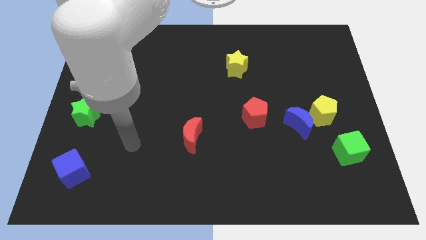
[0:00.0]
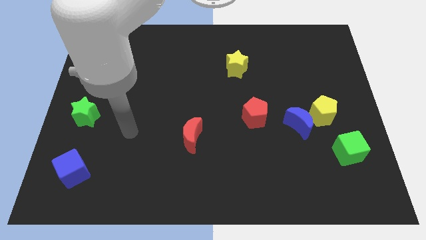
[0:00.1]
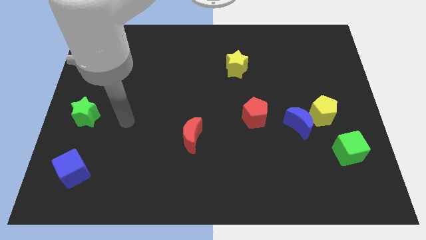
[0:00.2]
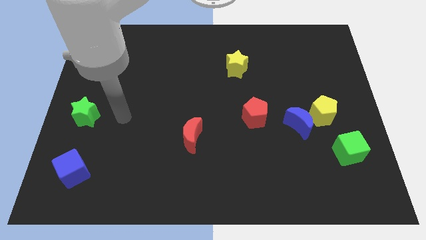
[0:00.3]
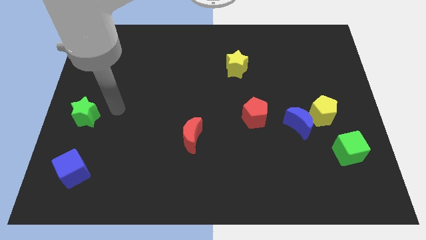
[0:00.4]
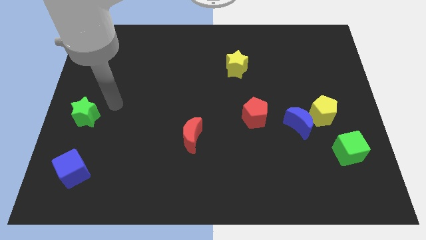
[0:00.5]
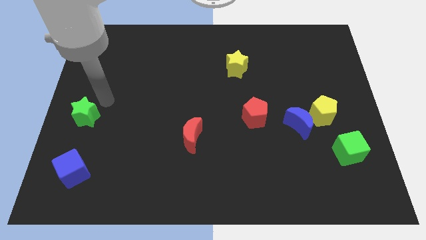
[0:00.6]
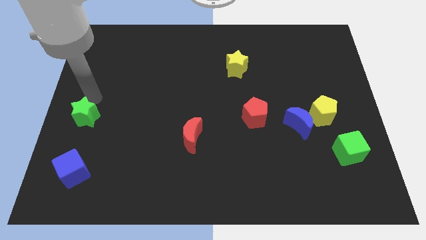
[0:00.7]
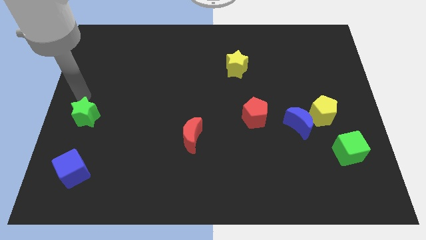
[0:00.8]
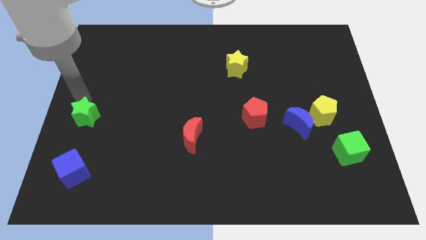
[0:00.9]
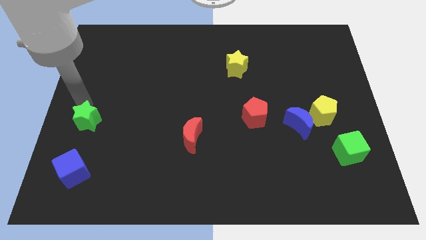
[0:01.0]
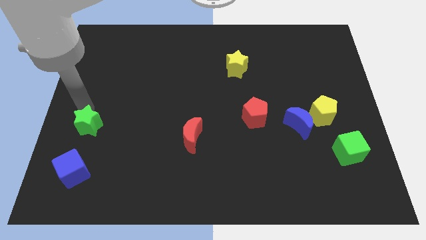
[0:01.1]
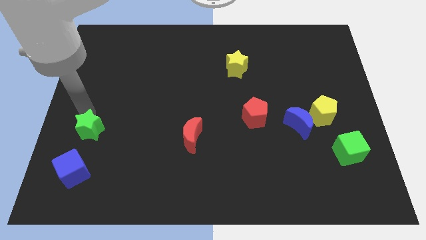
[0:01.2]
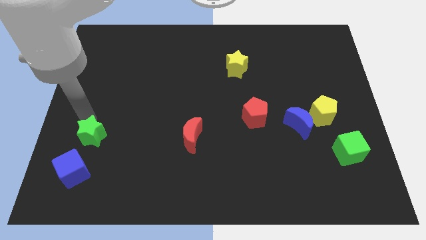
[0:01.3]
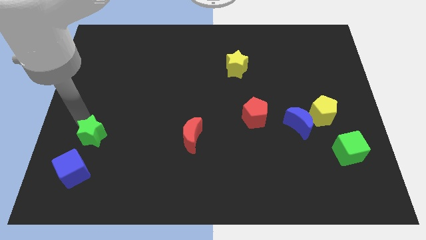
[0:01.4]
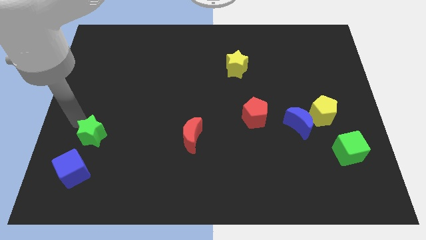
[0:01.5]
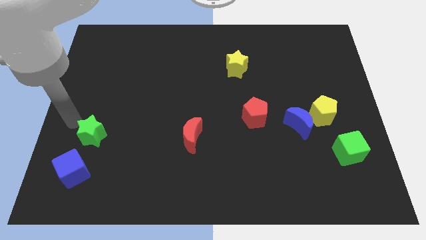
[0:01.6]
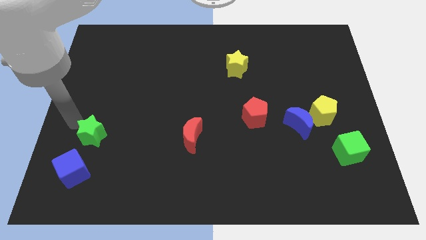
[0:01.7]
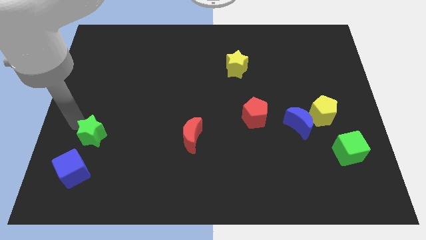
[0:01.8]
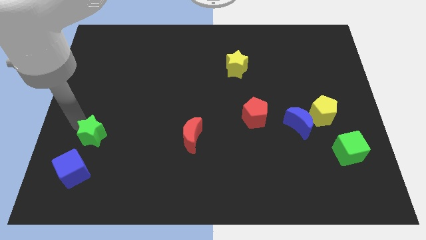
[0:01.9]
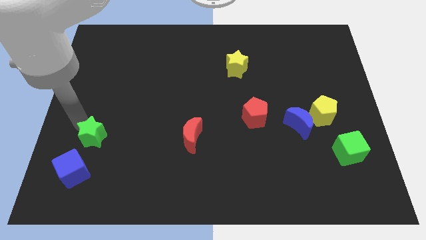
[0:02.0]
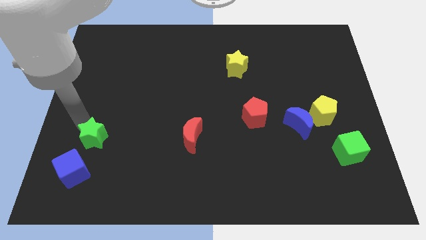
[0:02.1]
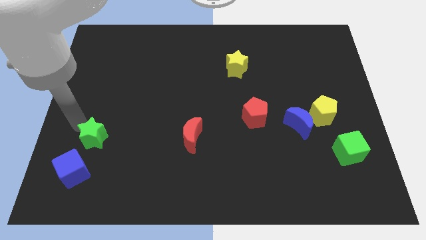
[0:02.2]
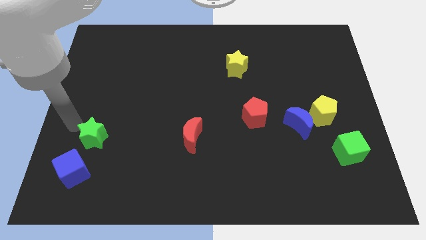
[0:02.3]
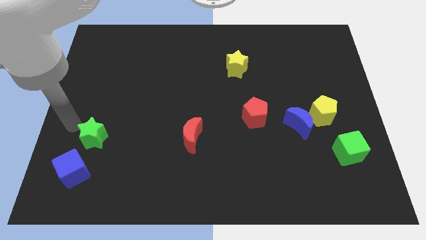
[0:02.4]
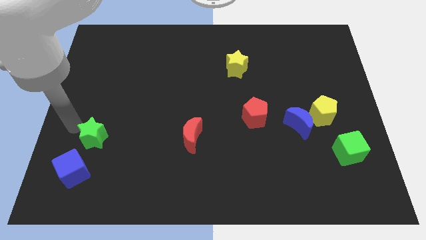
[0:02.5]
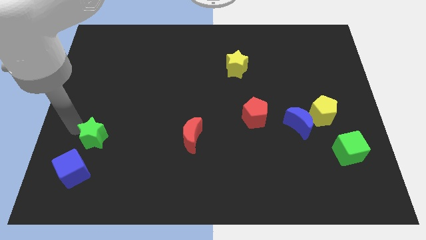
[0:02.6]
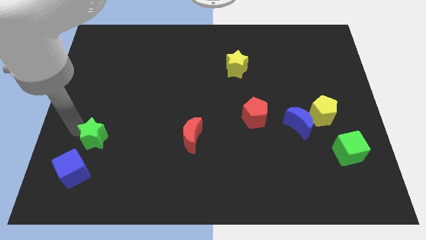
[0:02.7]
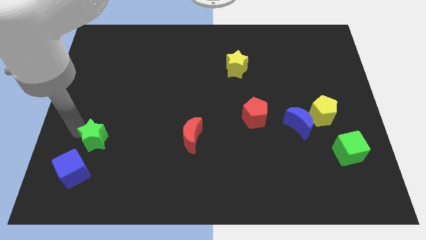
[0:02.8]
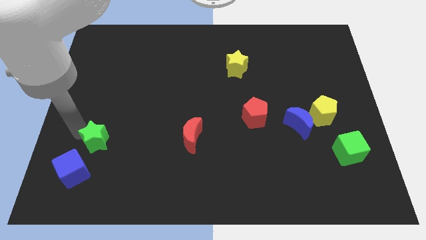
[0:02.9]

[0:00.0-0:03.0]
move the green star a little diagonally down and right

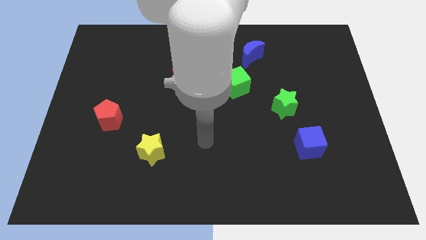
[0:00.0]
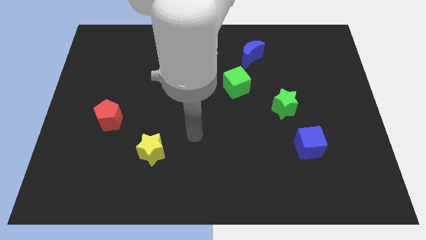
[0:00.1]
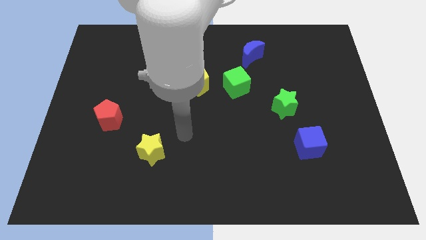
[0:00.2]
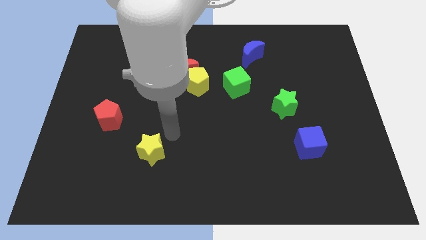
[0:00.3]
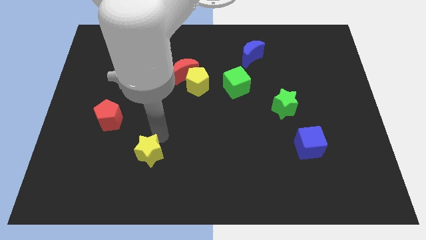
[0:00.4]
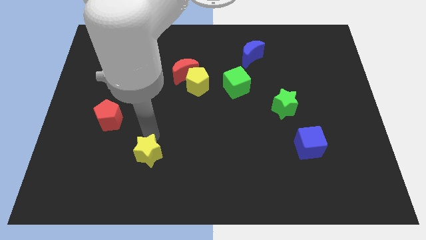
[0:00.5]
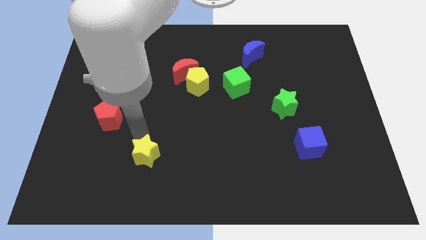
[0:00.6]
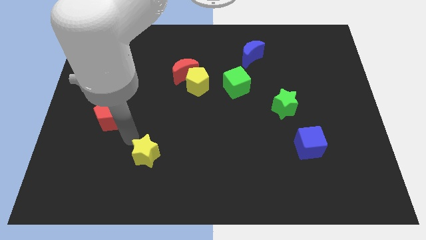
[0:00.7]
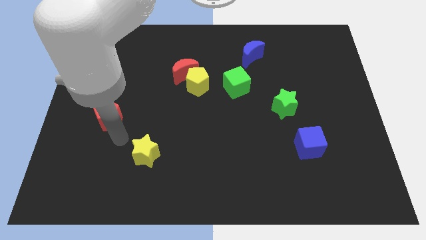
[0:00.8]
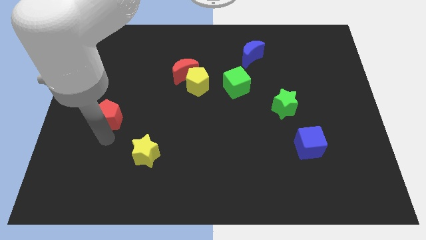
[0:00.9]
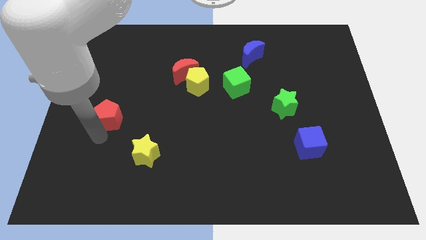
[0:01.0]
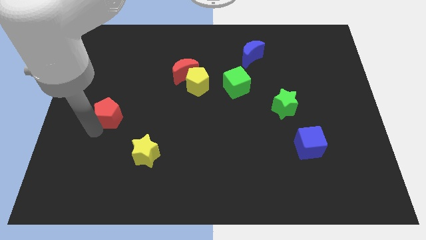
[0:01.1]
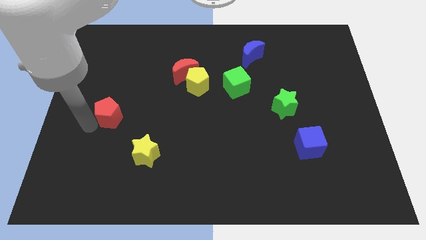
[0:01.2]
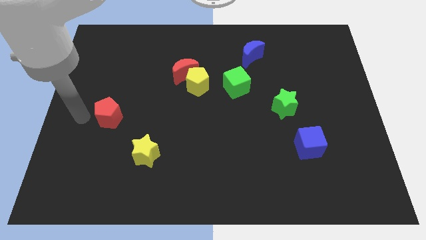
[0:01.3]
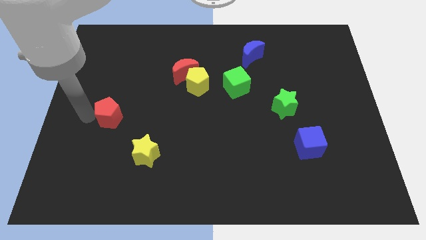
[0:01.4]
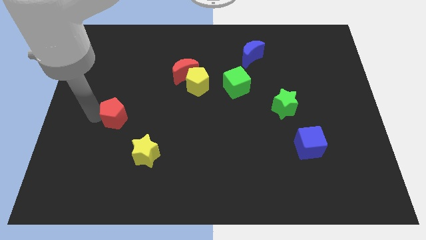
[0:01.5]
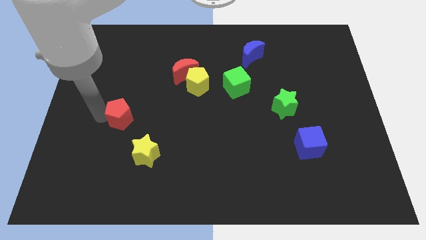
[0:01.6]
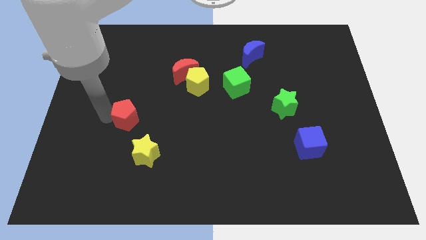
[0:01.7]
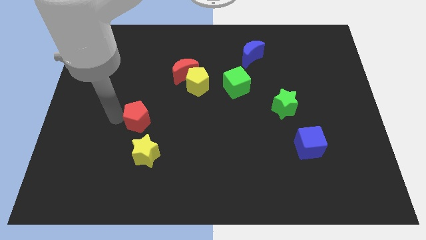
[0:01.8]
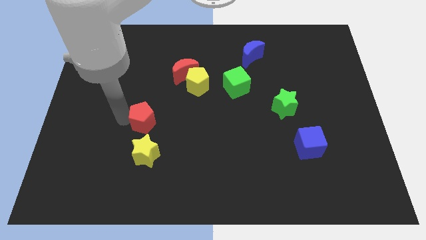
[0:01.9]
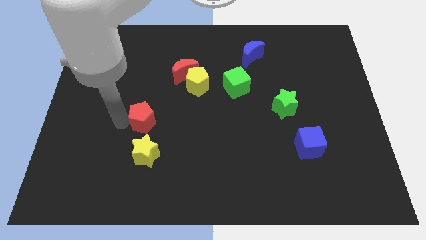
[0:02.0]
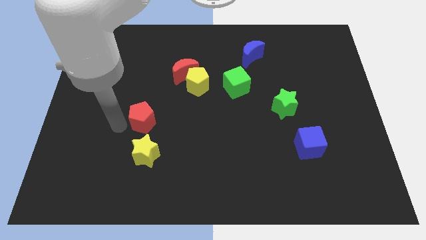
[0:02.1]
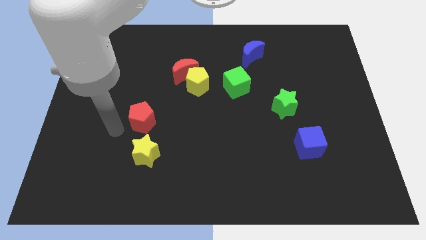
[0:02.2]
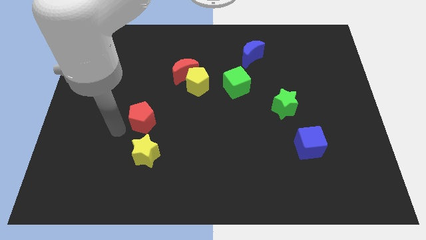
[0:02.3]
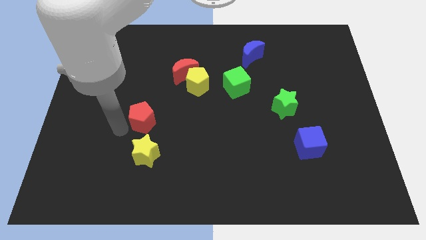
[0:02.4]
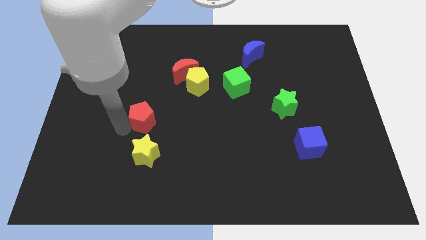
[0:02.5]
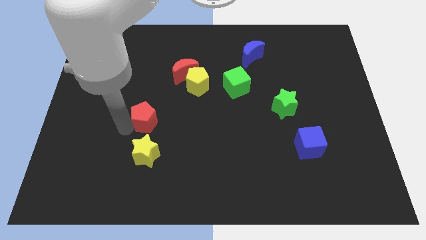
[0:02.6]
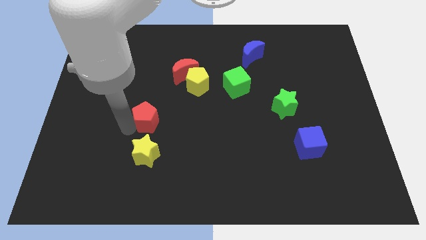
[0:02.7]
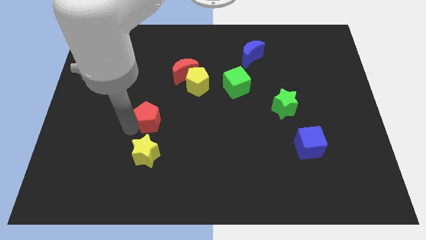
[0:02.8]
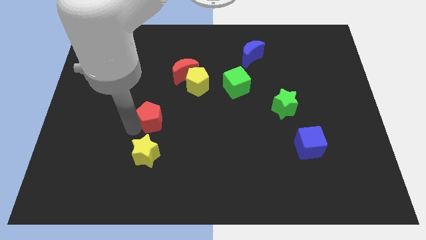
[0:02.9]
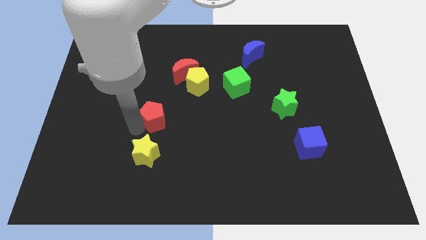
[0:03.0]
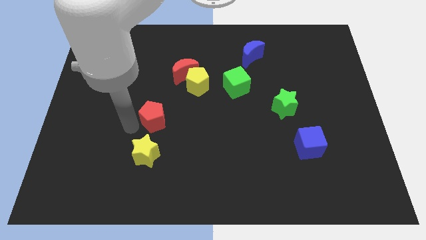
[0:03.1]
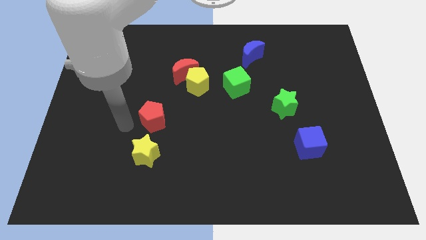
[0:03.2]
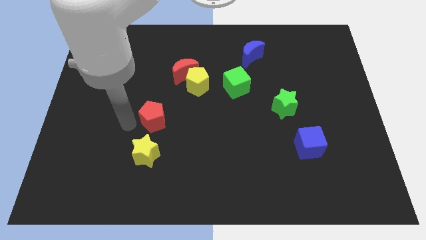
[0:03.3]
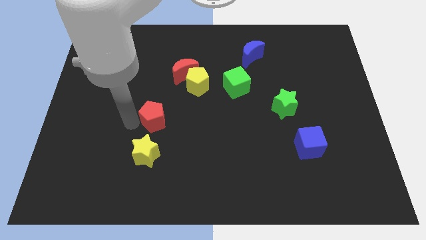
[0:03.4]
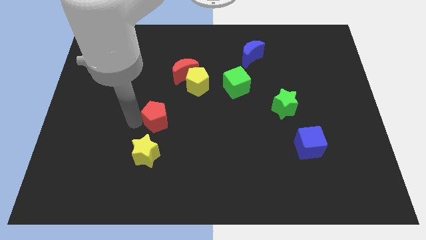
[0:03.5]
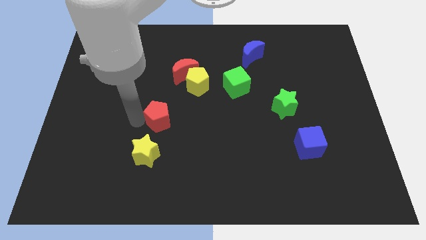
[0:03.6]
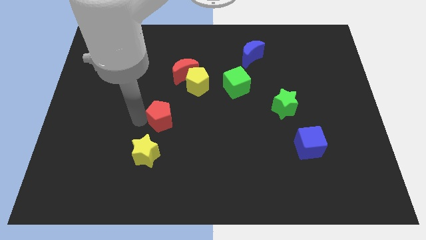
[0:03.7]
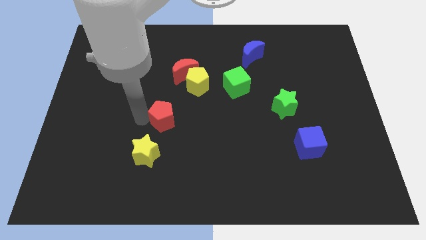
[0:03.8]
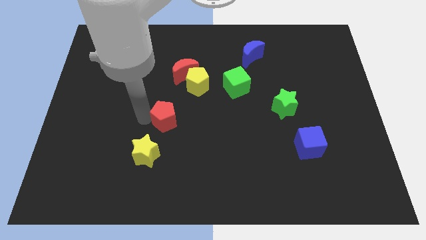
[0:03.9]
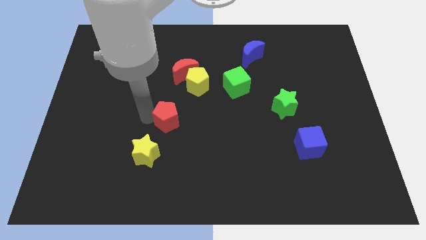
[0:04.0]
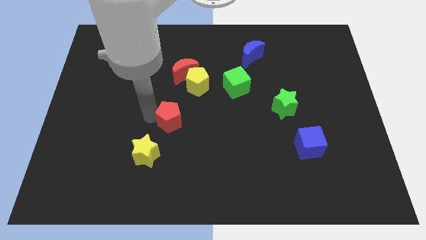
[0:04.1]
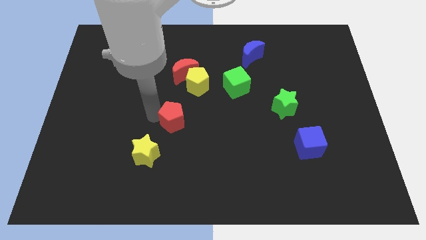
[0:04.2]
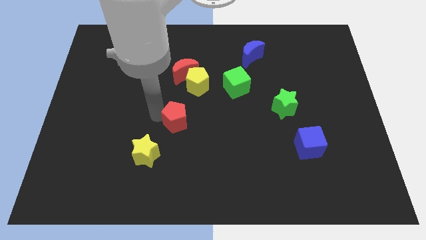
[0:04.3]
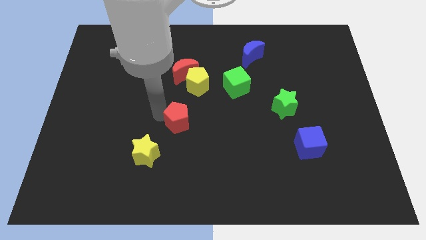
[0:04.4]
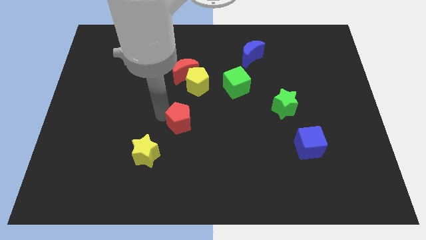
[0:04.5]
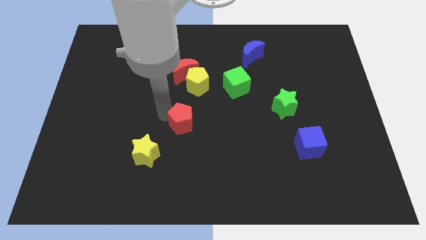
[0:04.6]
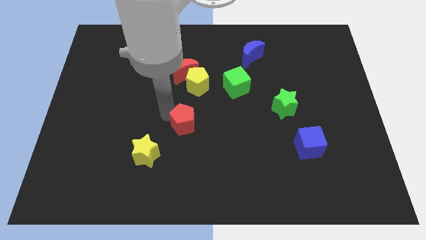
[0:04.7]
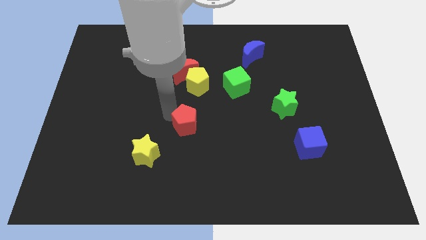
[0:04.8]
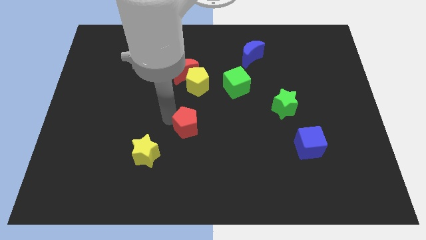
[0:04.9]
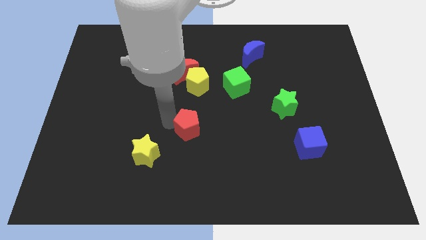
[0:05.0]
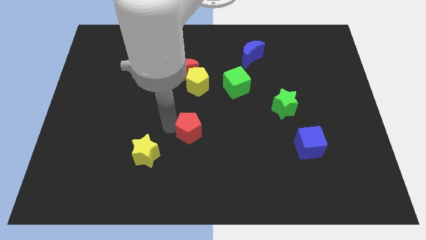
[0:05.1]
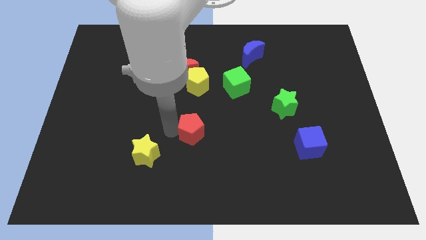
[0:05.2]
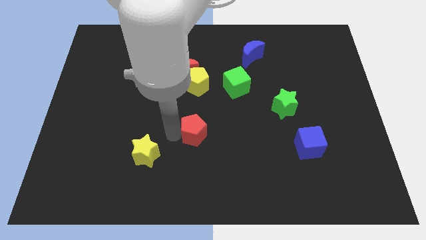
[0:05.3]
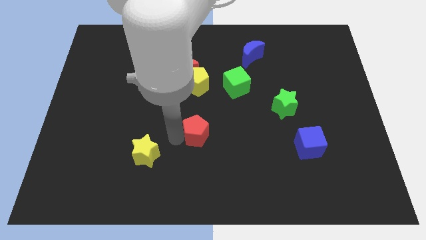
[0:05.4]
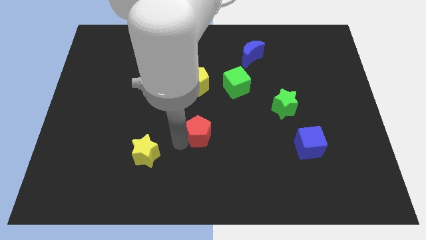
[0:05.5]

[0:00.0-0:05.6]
push the red pentagon right
